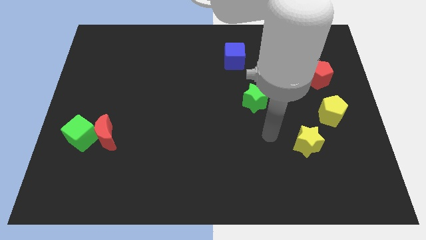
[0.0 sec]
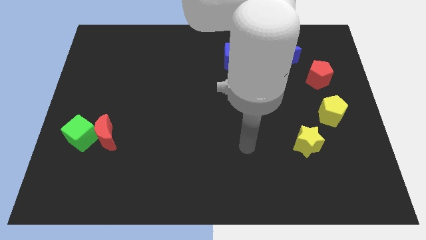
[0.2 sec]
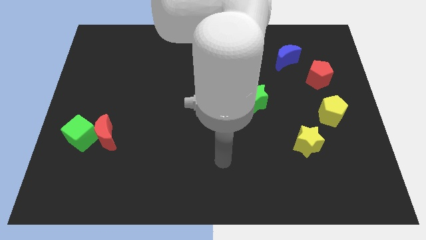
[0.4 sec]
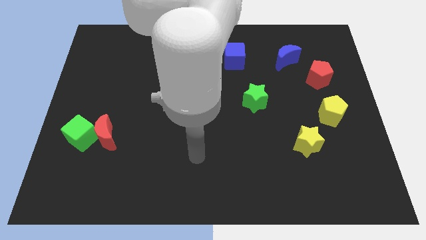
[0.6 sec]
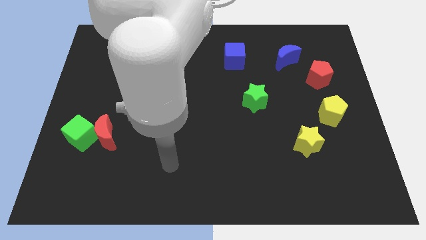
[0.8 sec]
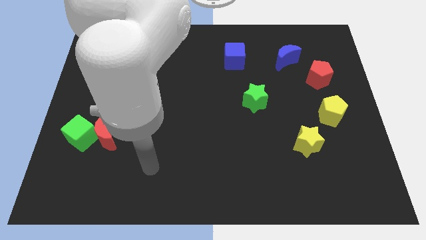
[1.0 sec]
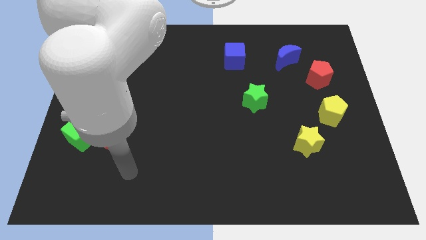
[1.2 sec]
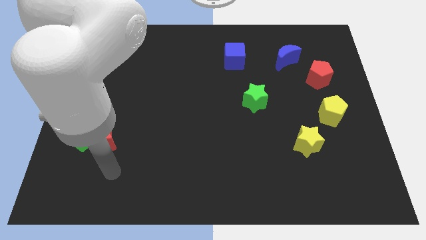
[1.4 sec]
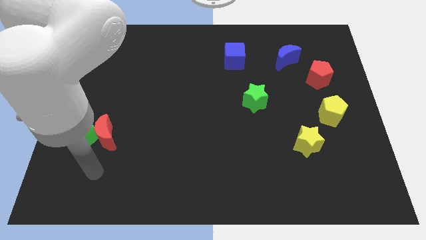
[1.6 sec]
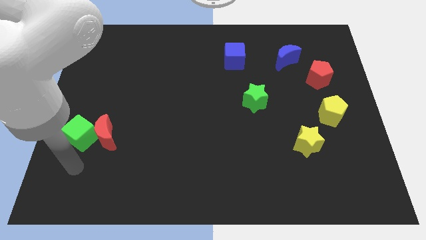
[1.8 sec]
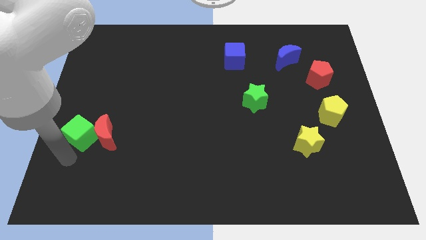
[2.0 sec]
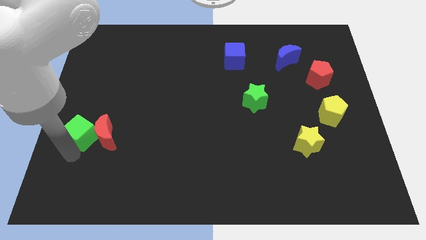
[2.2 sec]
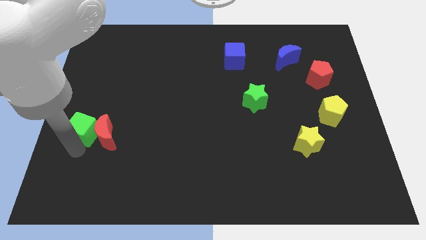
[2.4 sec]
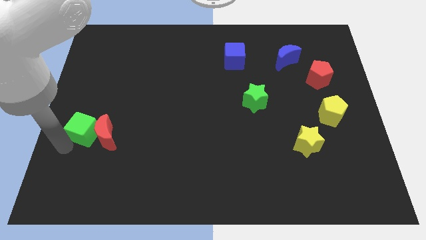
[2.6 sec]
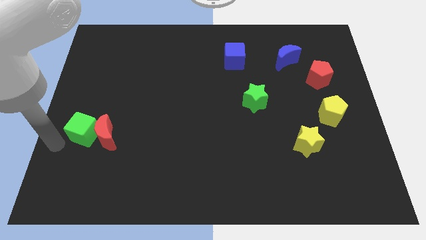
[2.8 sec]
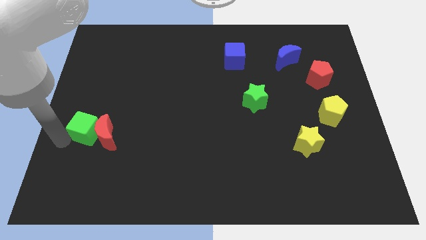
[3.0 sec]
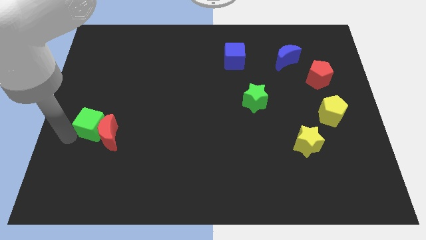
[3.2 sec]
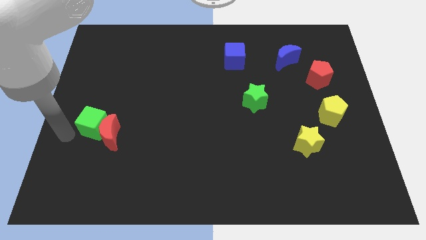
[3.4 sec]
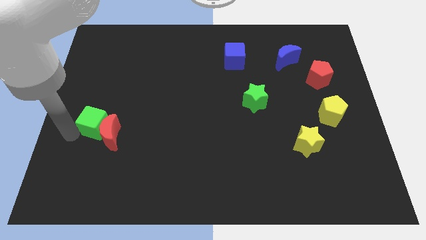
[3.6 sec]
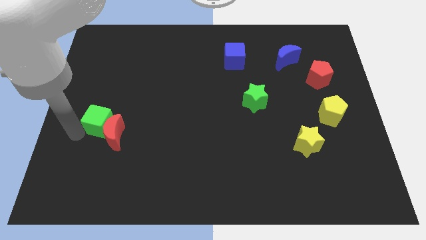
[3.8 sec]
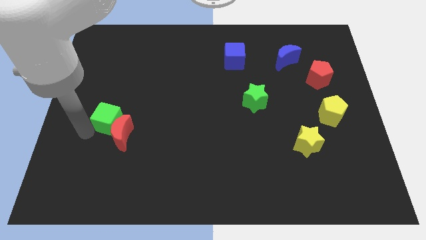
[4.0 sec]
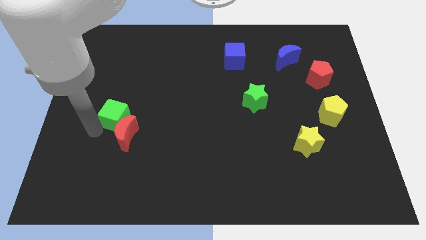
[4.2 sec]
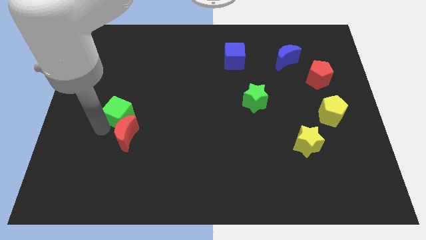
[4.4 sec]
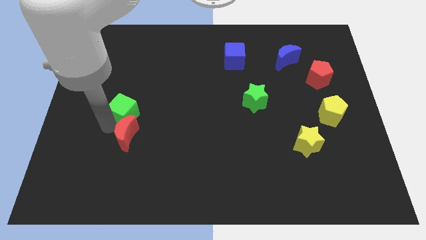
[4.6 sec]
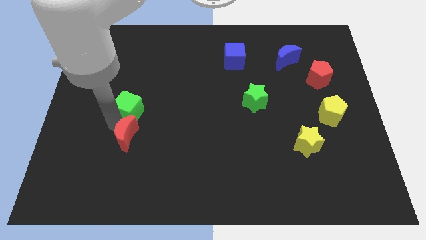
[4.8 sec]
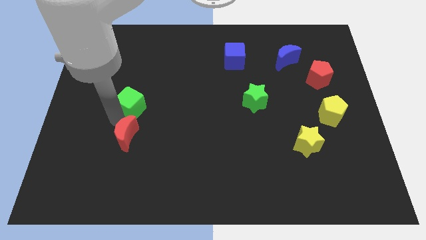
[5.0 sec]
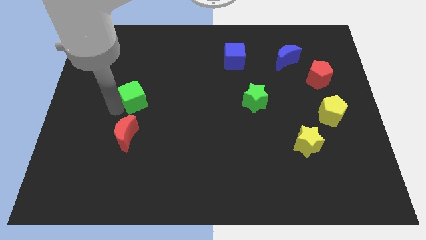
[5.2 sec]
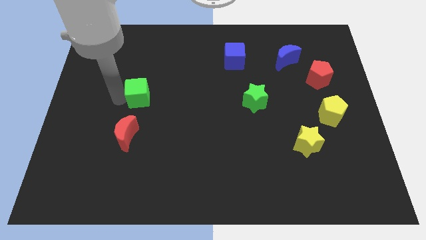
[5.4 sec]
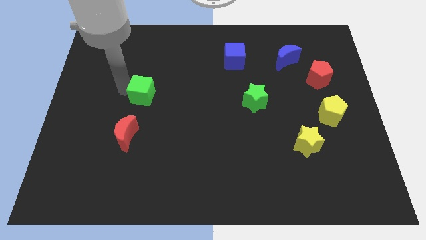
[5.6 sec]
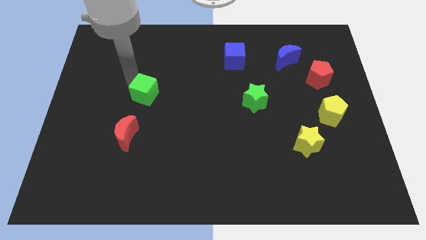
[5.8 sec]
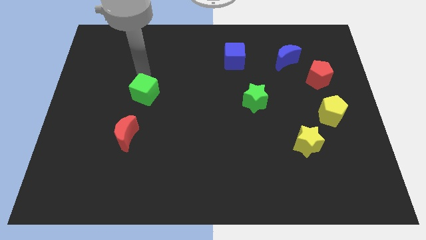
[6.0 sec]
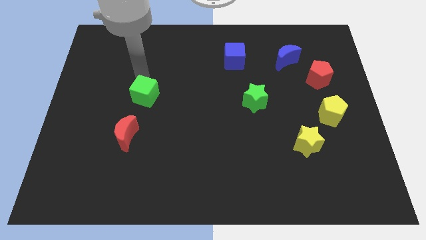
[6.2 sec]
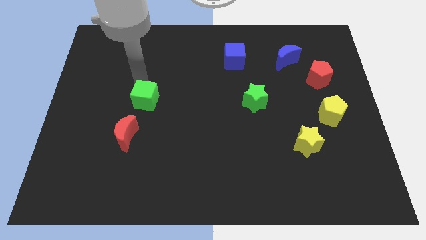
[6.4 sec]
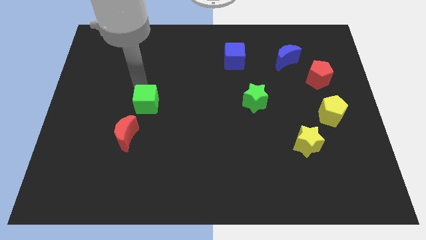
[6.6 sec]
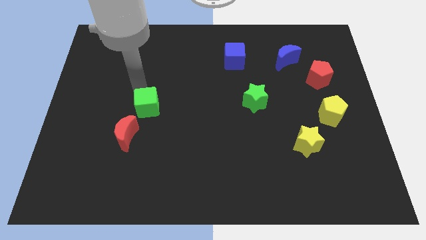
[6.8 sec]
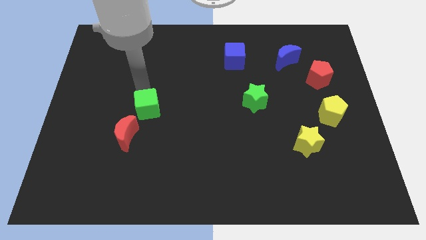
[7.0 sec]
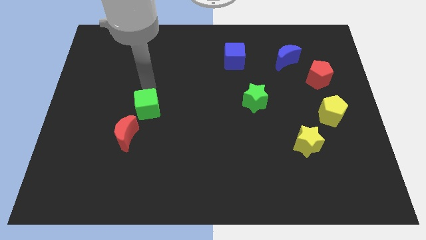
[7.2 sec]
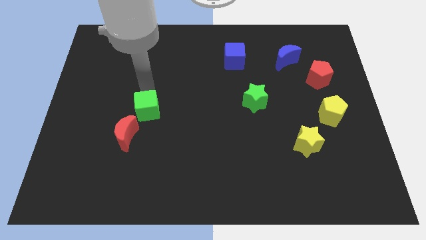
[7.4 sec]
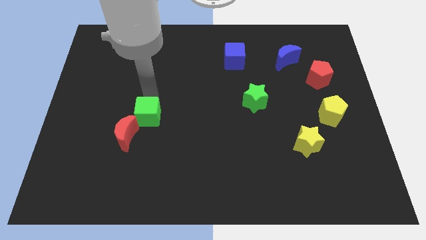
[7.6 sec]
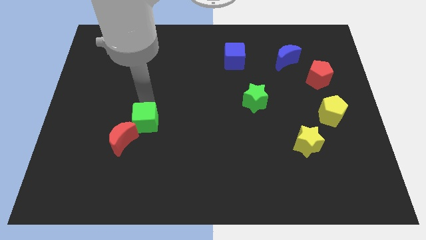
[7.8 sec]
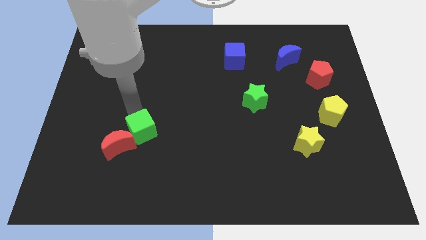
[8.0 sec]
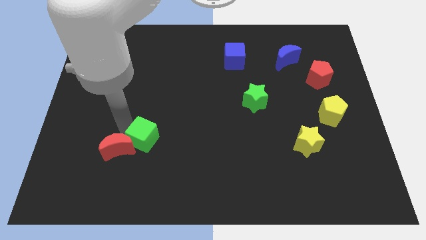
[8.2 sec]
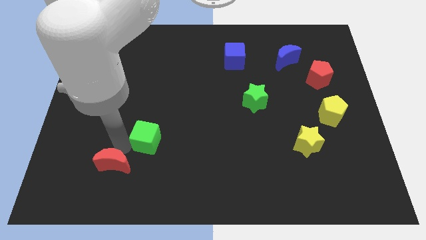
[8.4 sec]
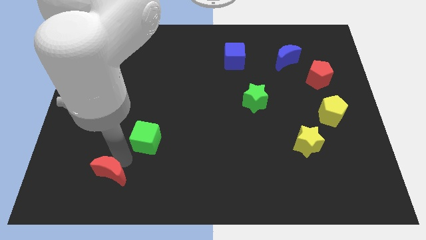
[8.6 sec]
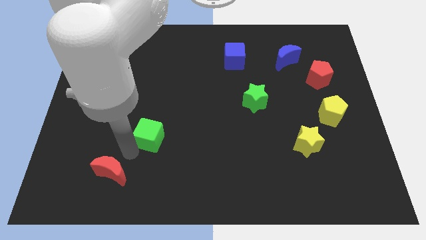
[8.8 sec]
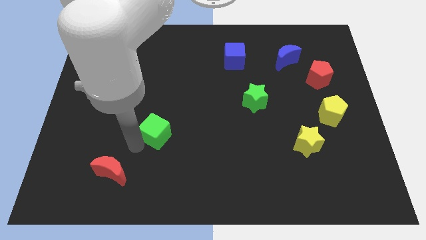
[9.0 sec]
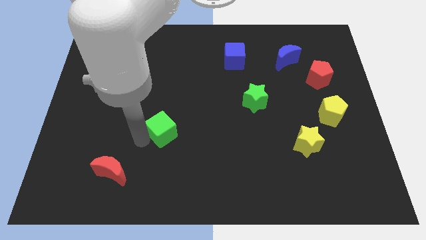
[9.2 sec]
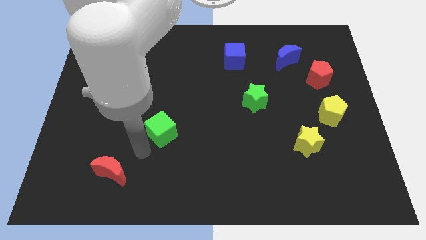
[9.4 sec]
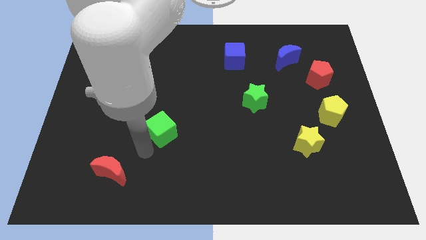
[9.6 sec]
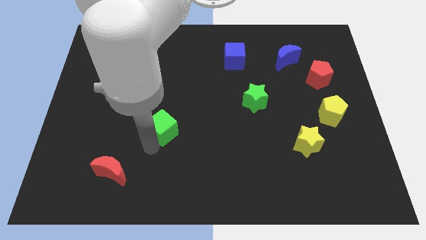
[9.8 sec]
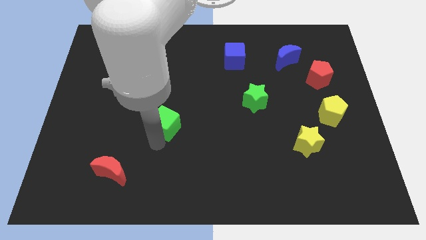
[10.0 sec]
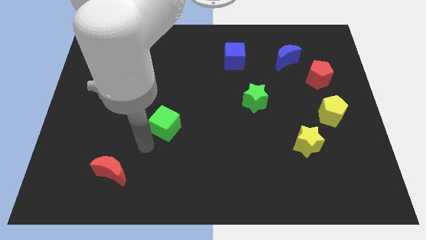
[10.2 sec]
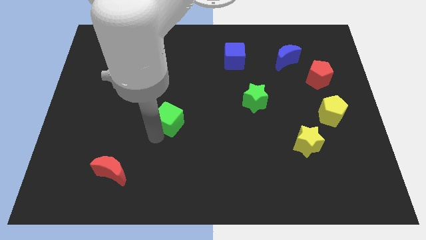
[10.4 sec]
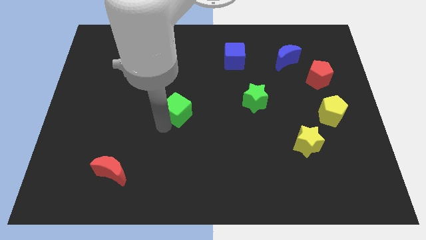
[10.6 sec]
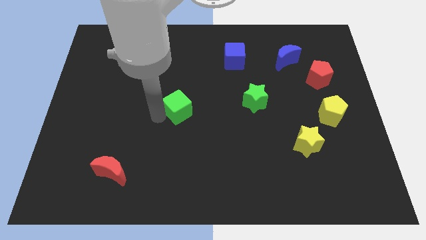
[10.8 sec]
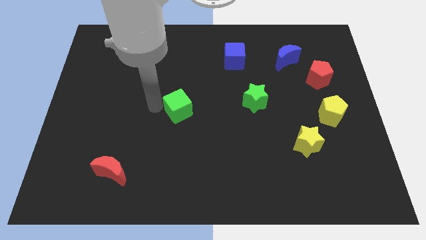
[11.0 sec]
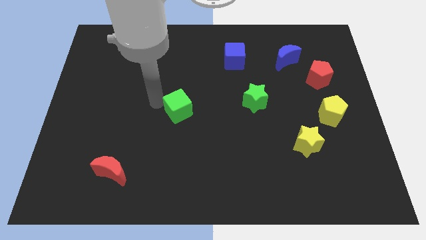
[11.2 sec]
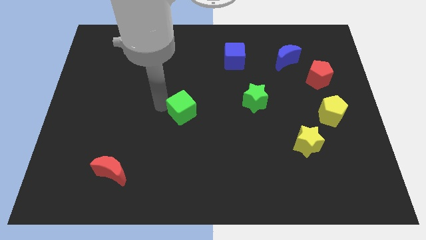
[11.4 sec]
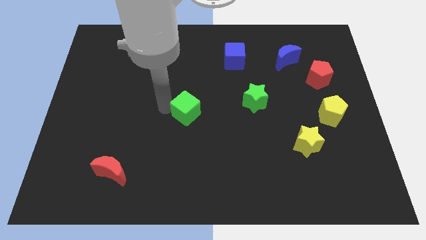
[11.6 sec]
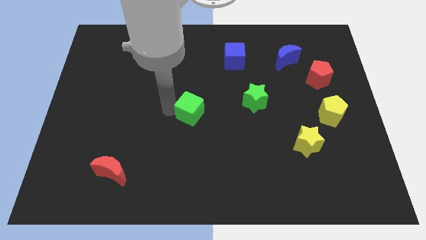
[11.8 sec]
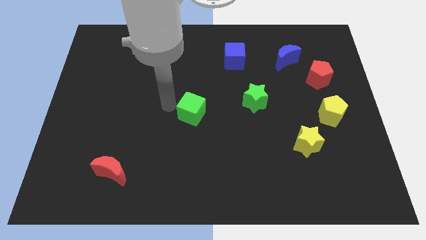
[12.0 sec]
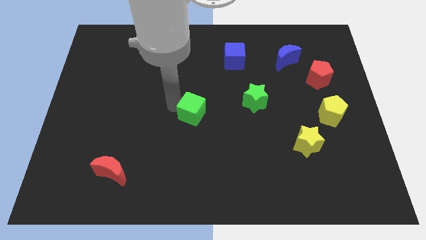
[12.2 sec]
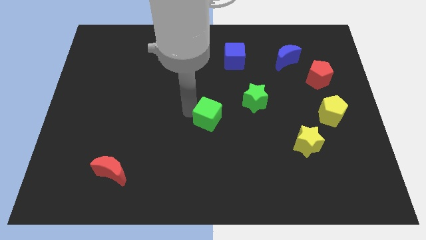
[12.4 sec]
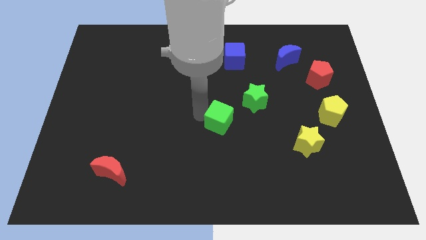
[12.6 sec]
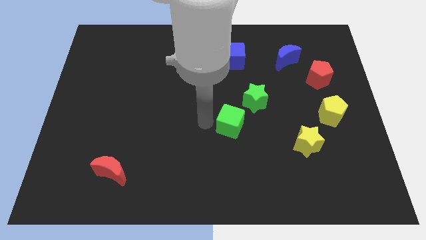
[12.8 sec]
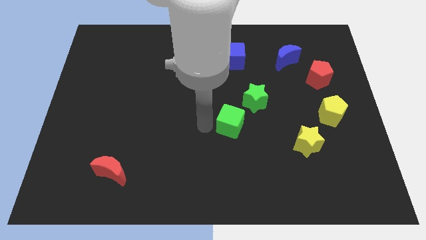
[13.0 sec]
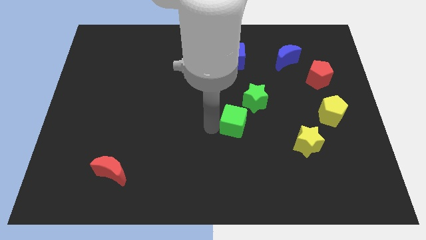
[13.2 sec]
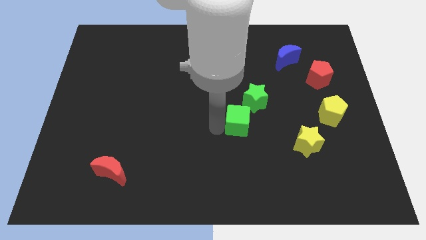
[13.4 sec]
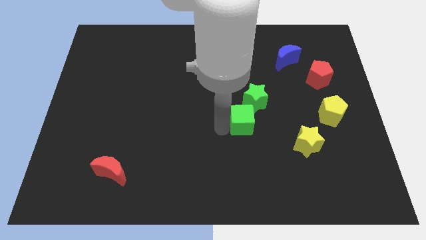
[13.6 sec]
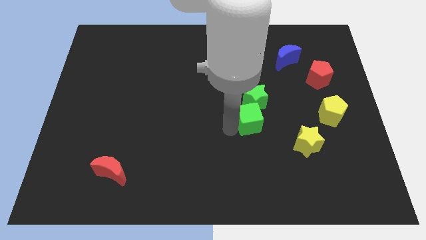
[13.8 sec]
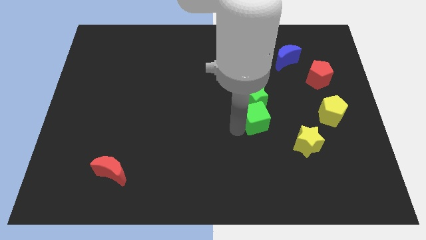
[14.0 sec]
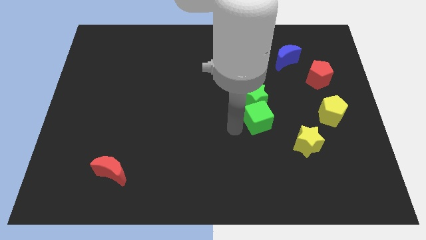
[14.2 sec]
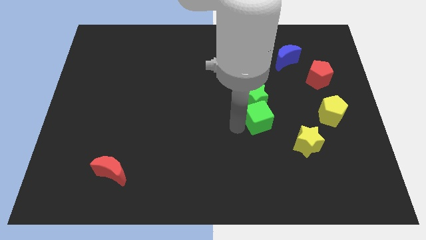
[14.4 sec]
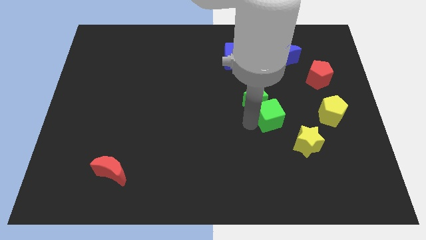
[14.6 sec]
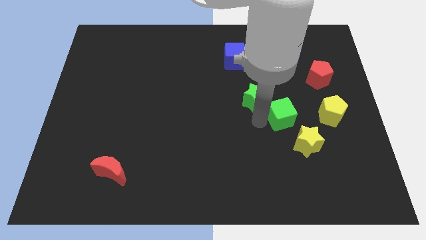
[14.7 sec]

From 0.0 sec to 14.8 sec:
slide the green cube to the top of the yellow star
